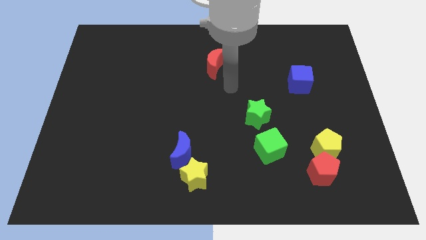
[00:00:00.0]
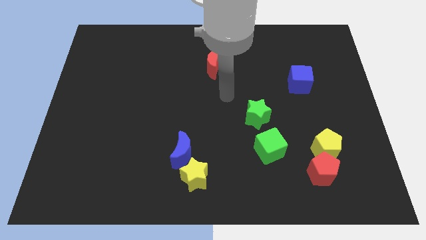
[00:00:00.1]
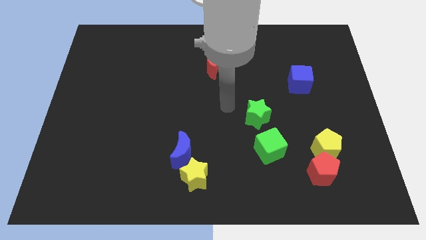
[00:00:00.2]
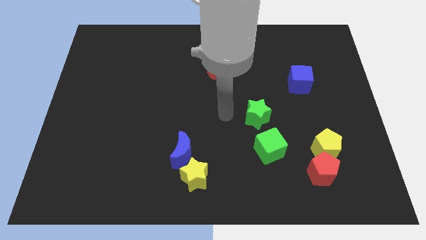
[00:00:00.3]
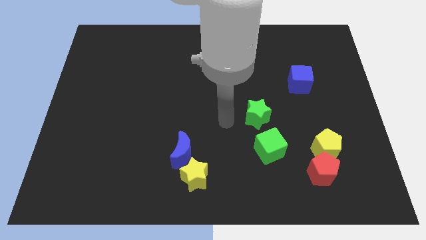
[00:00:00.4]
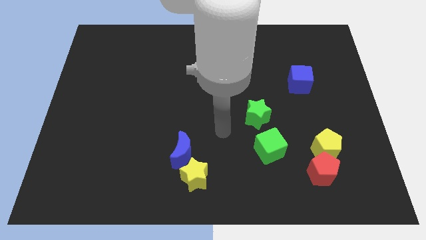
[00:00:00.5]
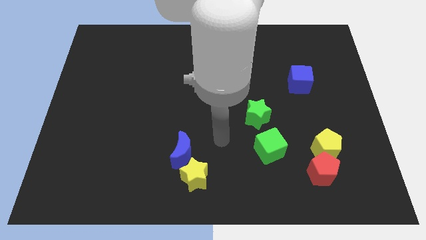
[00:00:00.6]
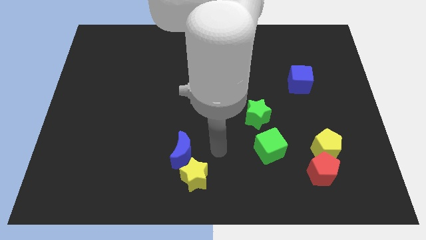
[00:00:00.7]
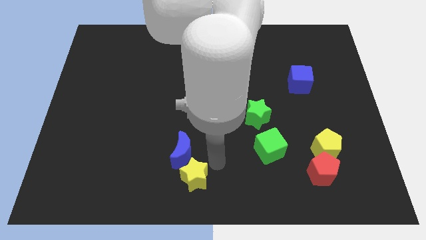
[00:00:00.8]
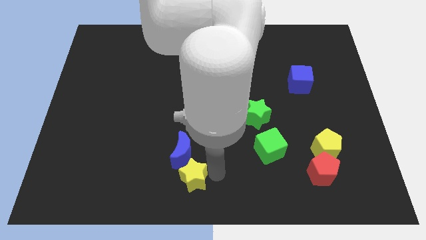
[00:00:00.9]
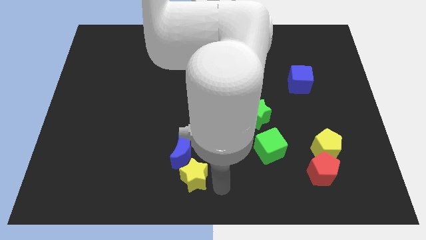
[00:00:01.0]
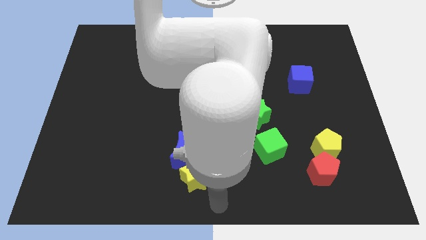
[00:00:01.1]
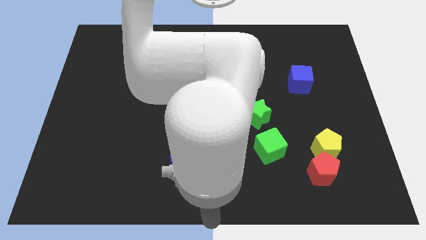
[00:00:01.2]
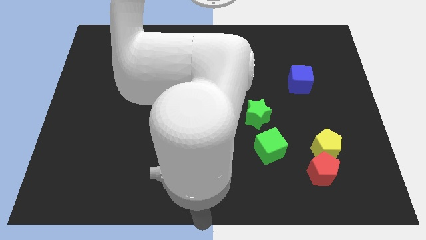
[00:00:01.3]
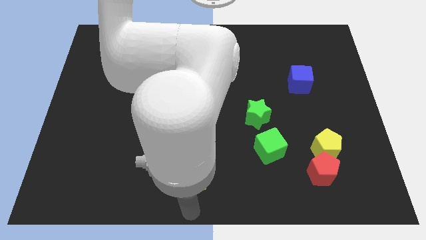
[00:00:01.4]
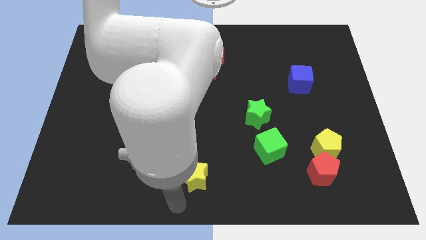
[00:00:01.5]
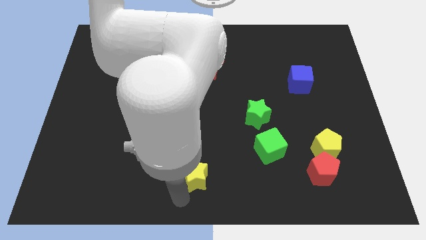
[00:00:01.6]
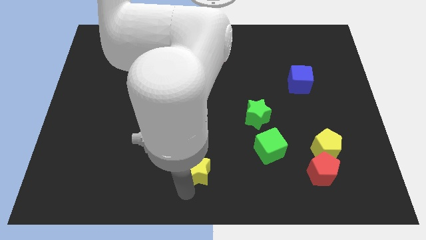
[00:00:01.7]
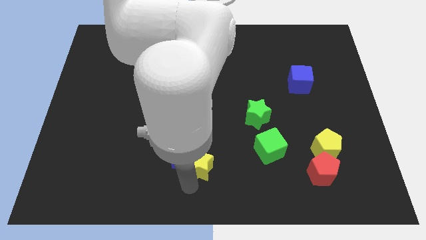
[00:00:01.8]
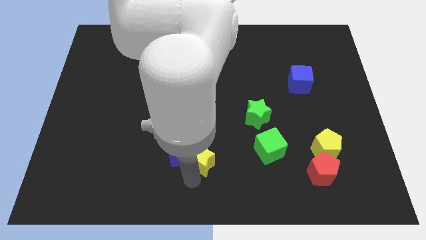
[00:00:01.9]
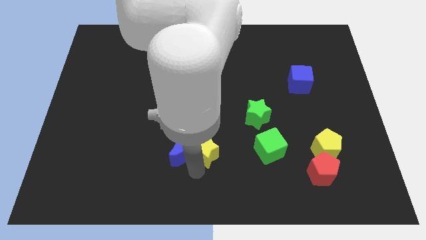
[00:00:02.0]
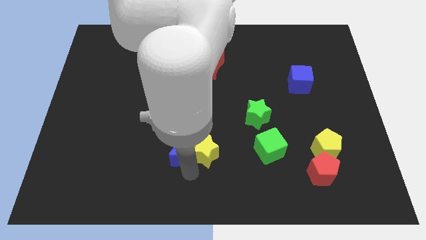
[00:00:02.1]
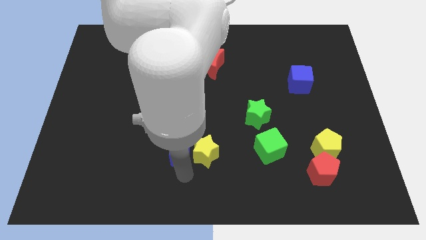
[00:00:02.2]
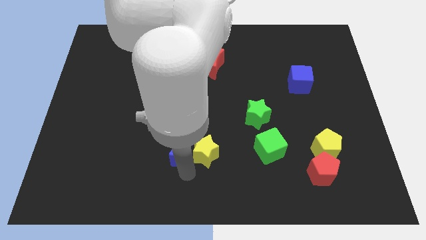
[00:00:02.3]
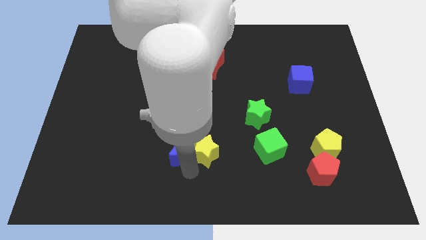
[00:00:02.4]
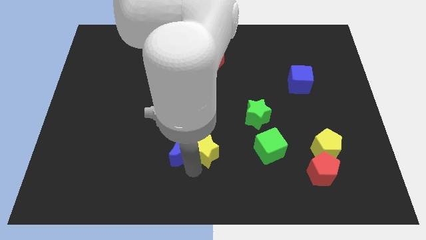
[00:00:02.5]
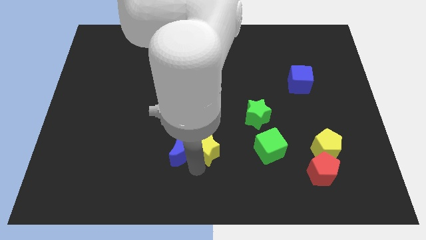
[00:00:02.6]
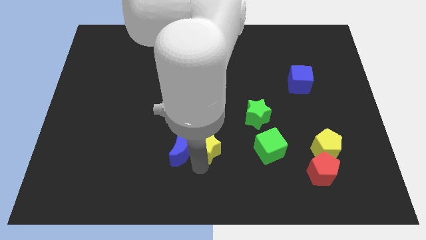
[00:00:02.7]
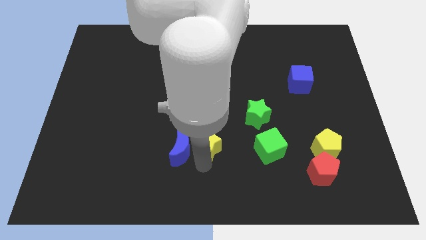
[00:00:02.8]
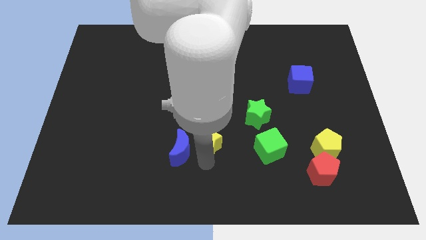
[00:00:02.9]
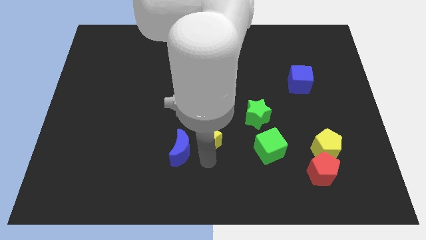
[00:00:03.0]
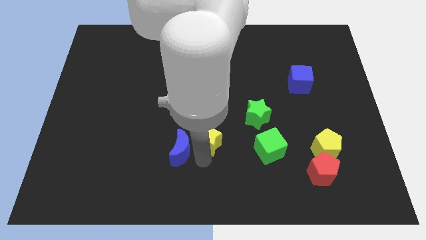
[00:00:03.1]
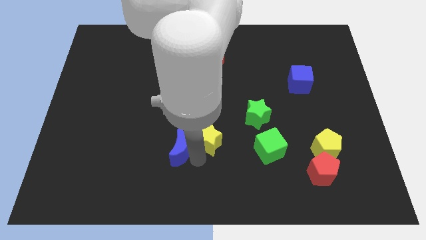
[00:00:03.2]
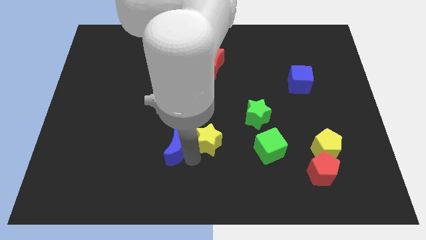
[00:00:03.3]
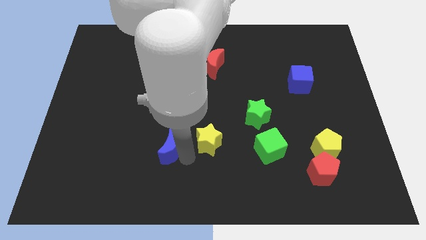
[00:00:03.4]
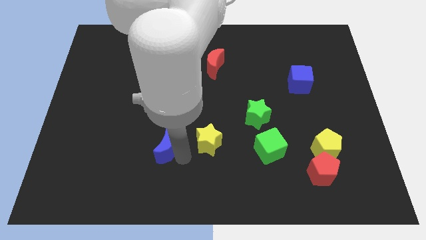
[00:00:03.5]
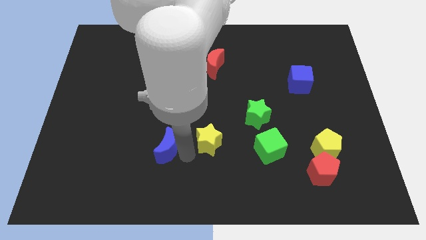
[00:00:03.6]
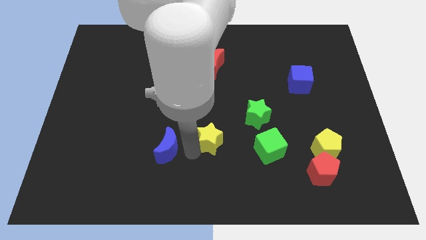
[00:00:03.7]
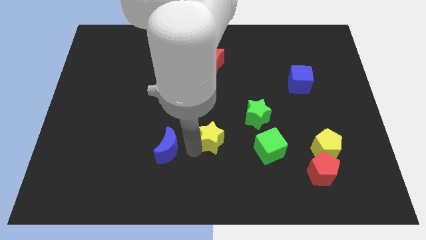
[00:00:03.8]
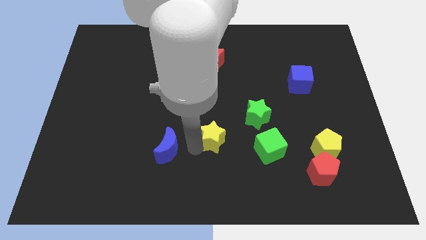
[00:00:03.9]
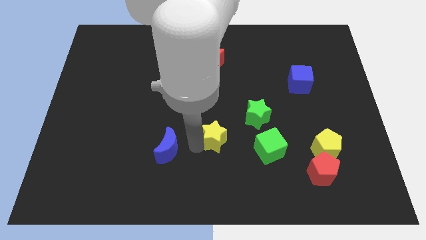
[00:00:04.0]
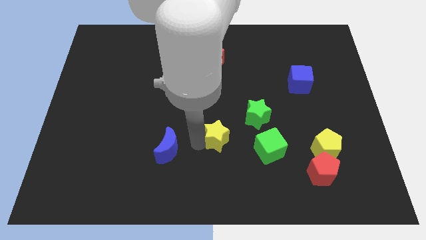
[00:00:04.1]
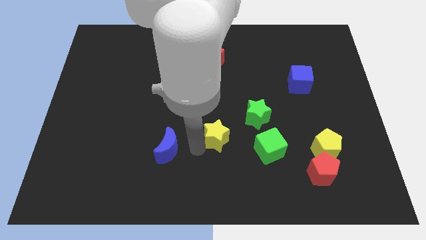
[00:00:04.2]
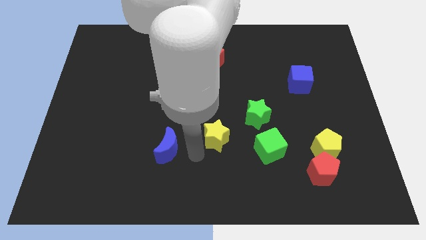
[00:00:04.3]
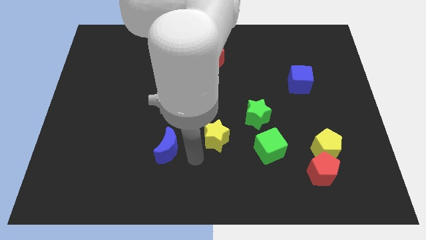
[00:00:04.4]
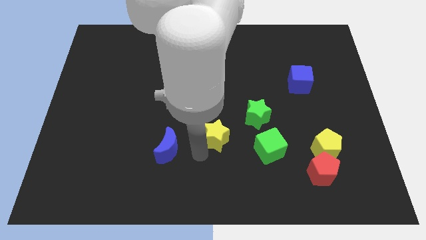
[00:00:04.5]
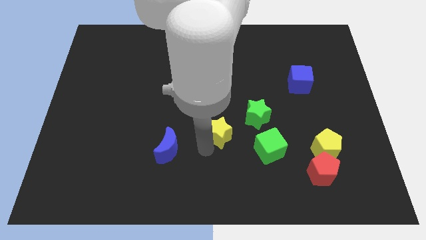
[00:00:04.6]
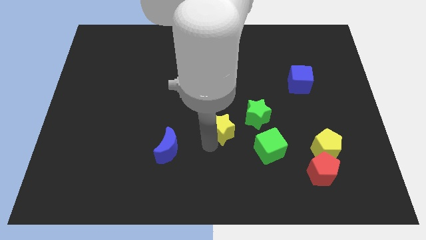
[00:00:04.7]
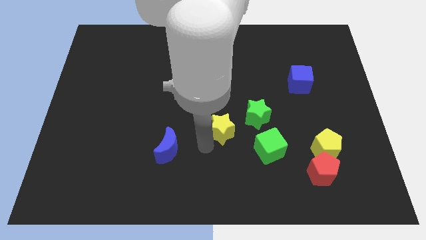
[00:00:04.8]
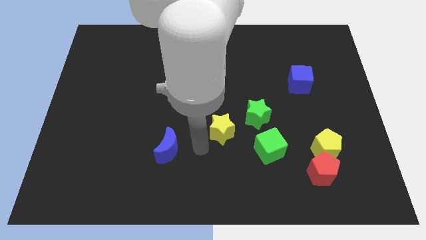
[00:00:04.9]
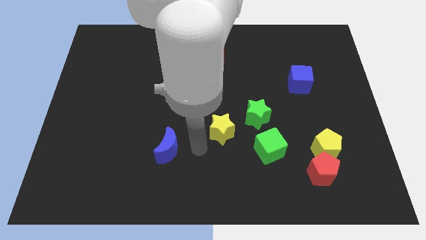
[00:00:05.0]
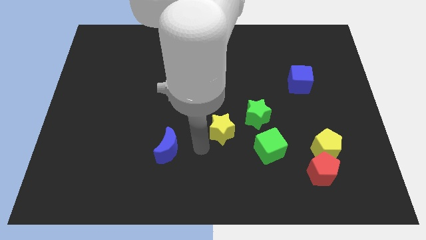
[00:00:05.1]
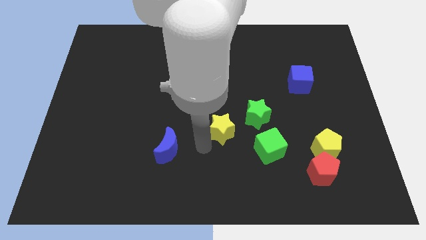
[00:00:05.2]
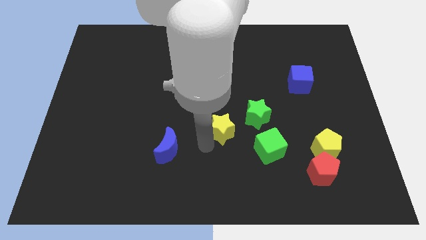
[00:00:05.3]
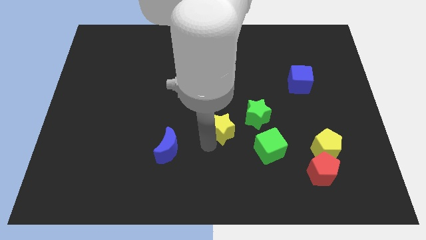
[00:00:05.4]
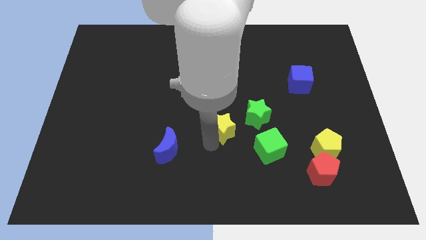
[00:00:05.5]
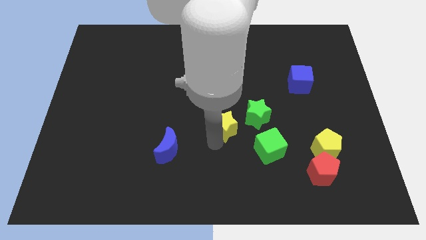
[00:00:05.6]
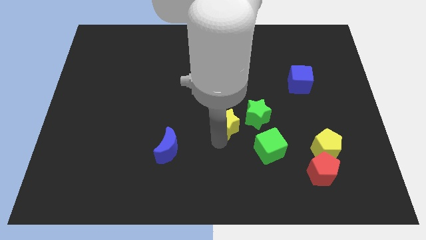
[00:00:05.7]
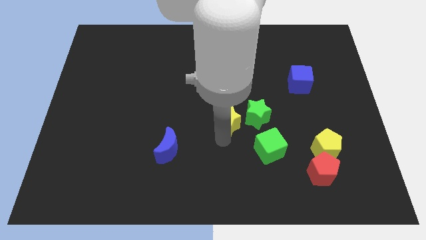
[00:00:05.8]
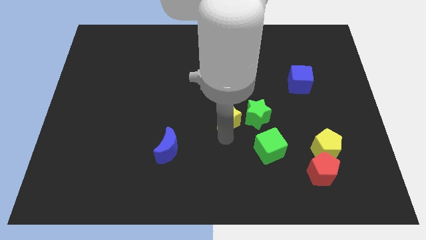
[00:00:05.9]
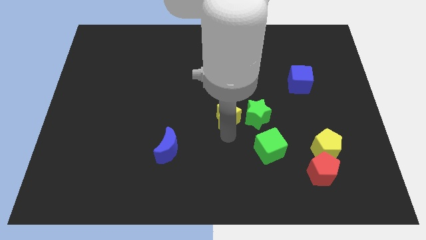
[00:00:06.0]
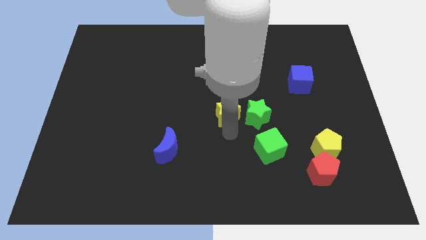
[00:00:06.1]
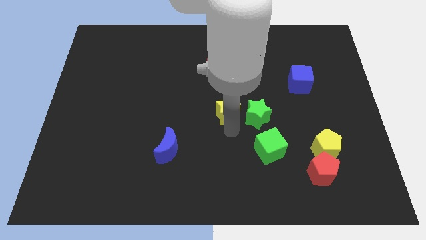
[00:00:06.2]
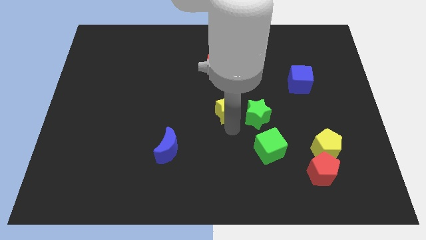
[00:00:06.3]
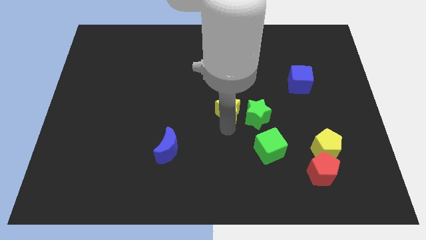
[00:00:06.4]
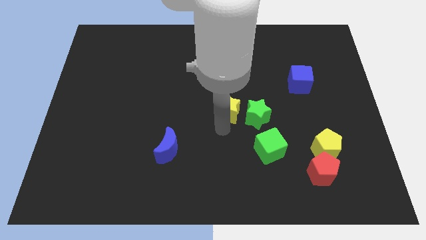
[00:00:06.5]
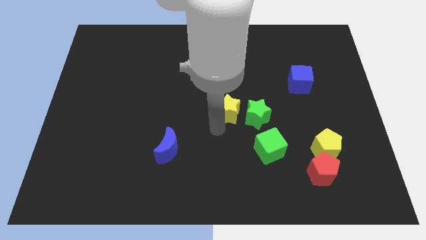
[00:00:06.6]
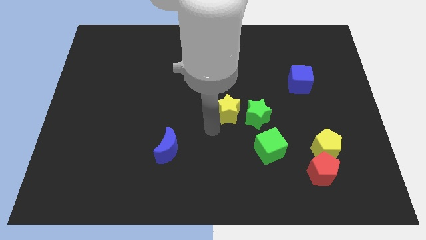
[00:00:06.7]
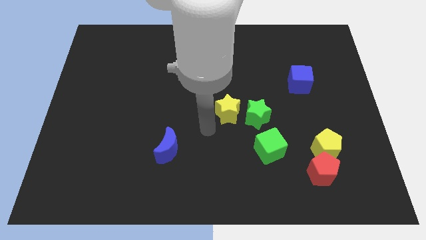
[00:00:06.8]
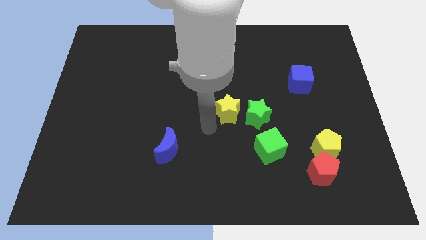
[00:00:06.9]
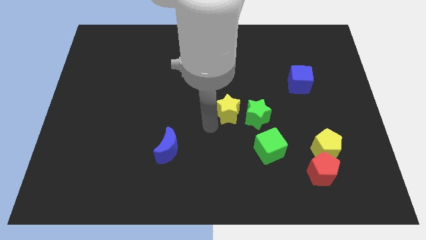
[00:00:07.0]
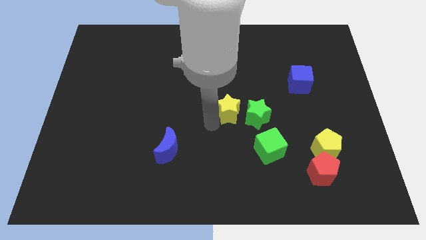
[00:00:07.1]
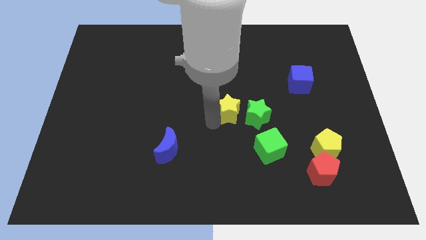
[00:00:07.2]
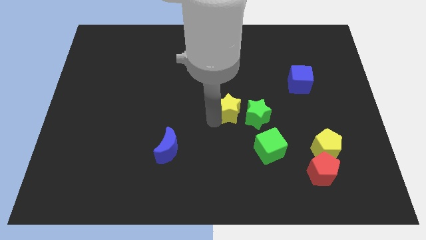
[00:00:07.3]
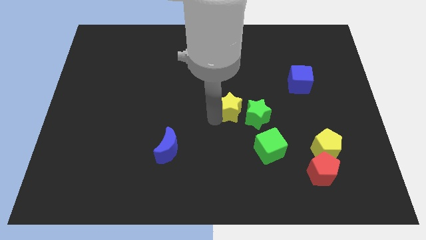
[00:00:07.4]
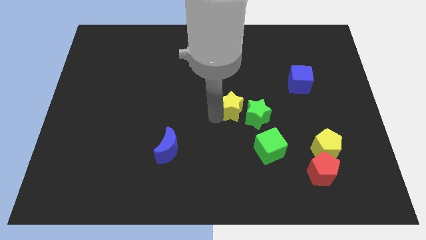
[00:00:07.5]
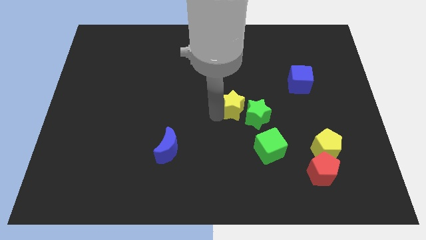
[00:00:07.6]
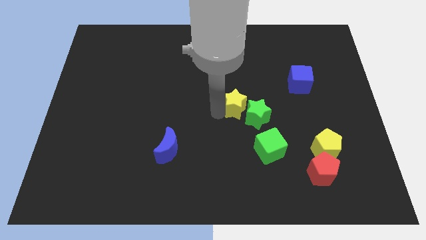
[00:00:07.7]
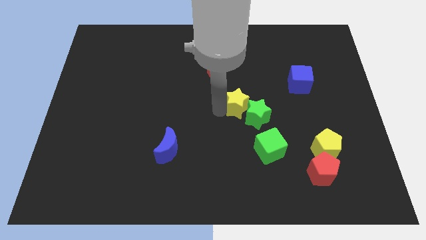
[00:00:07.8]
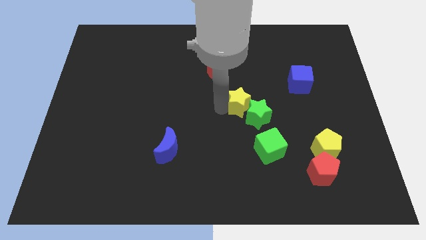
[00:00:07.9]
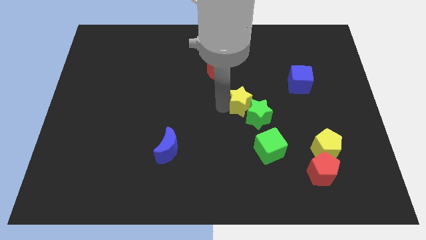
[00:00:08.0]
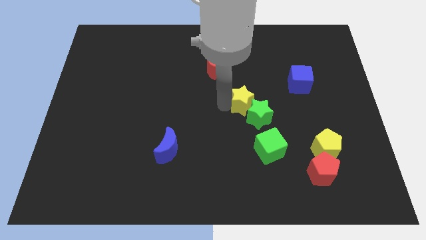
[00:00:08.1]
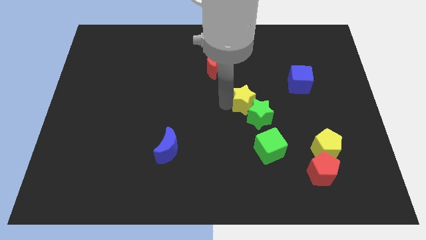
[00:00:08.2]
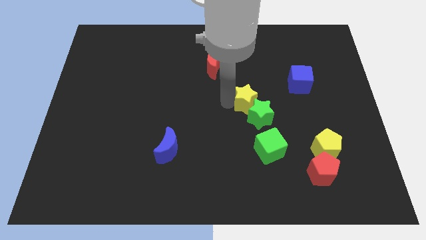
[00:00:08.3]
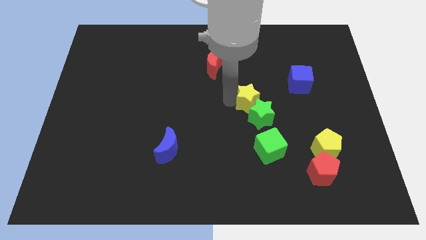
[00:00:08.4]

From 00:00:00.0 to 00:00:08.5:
push the yellow star to the top side of the green cube

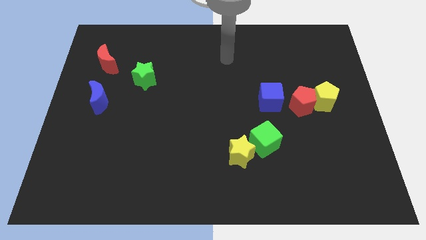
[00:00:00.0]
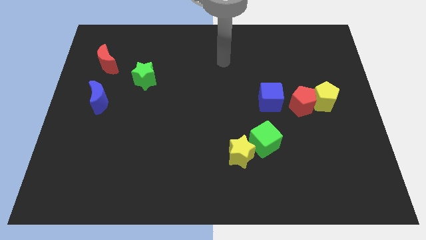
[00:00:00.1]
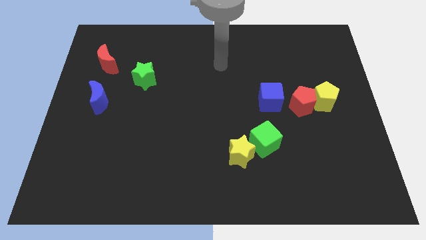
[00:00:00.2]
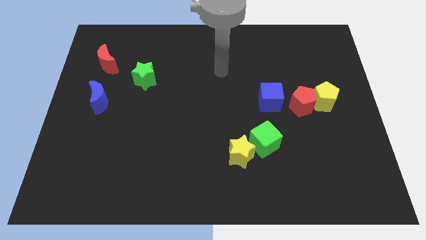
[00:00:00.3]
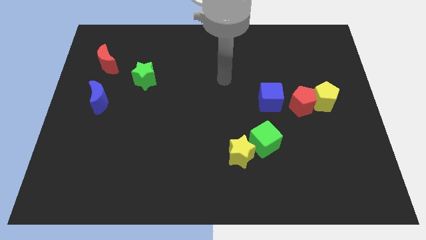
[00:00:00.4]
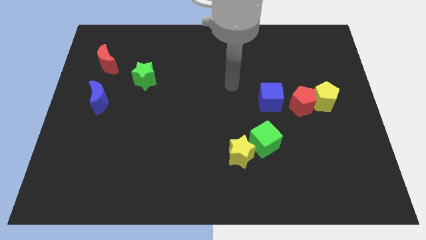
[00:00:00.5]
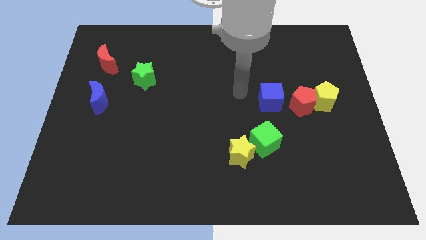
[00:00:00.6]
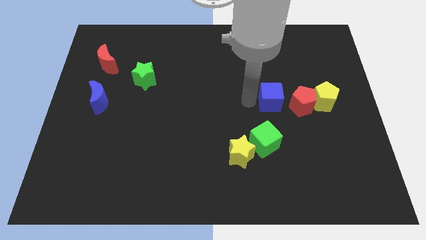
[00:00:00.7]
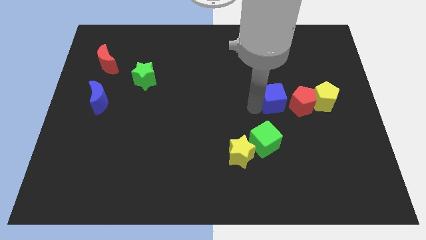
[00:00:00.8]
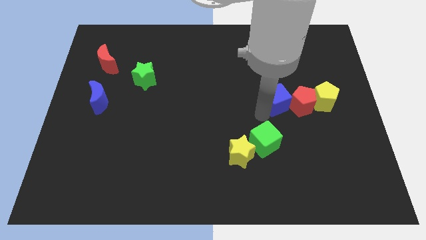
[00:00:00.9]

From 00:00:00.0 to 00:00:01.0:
slide the red pentagon to the top right of the blue cube
